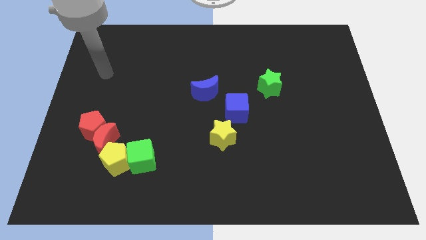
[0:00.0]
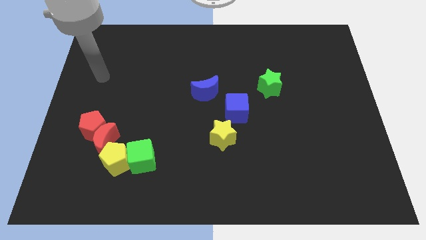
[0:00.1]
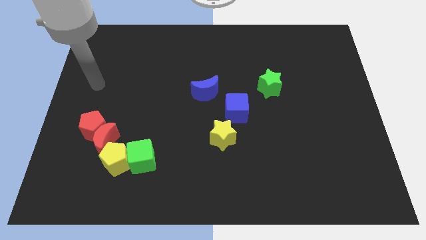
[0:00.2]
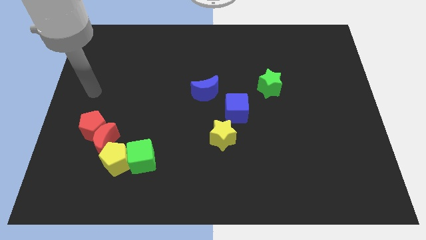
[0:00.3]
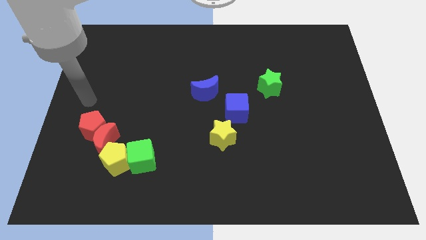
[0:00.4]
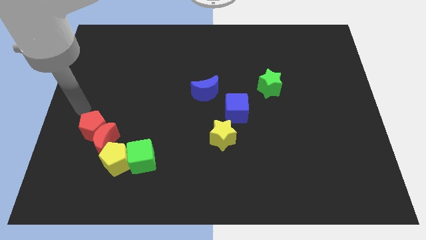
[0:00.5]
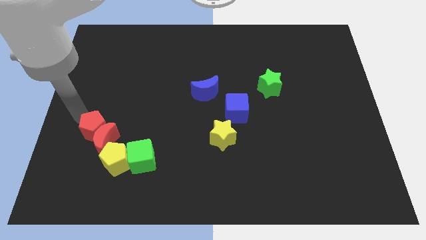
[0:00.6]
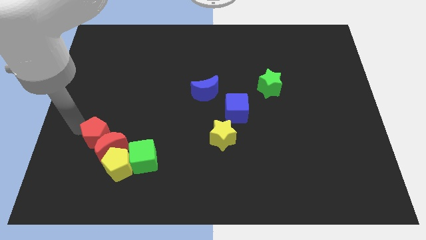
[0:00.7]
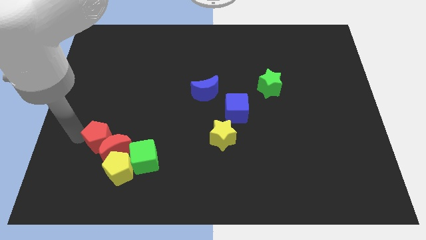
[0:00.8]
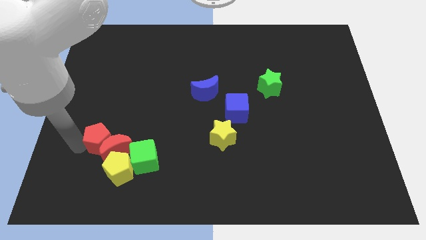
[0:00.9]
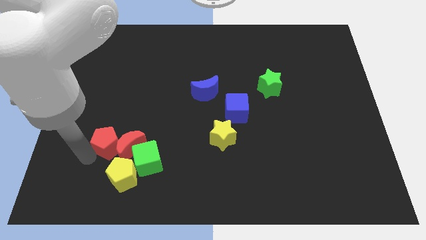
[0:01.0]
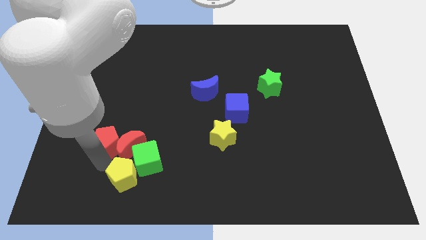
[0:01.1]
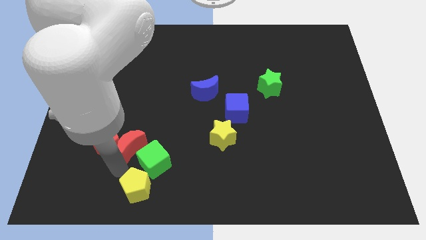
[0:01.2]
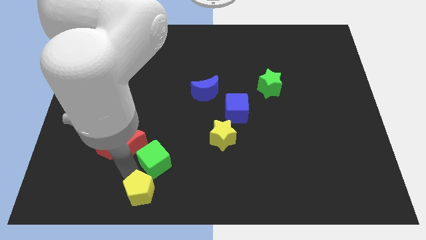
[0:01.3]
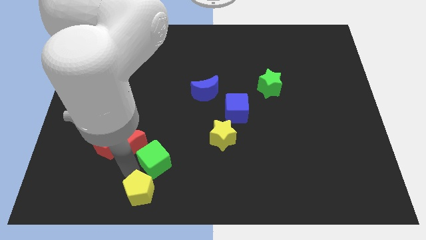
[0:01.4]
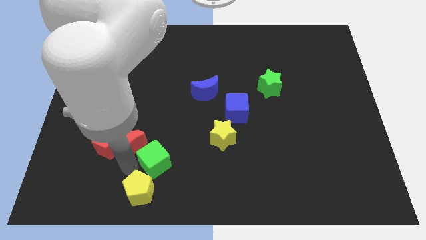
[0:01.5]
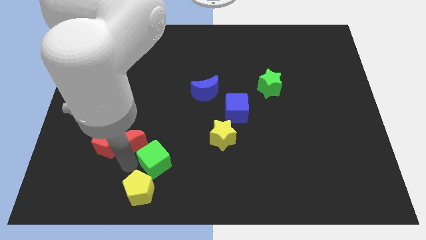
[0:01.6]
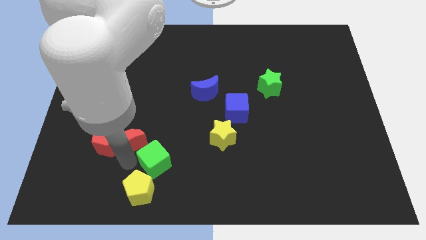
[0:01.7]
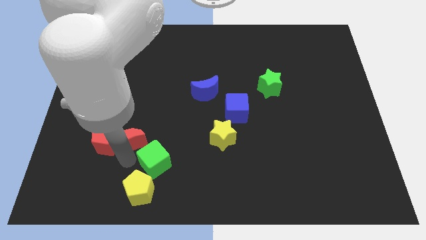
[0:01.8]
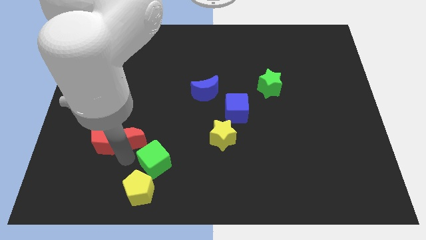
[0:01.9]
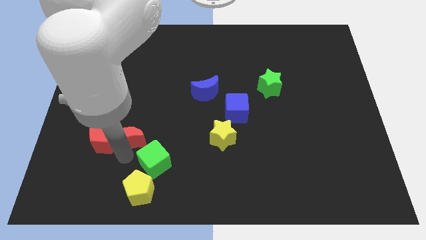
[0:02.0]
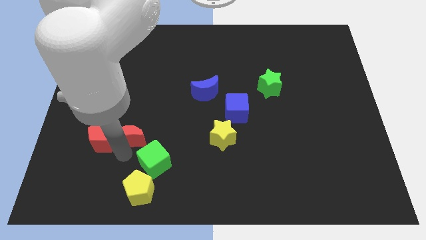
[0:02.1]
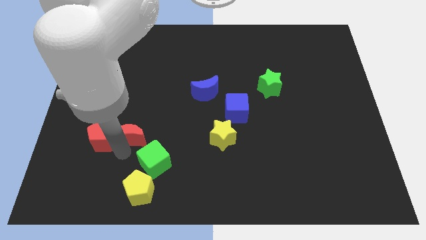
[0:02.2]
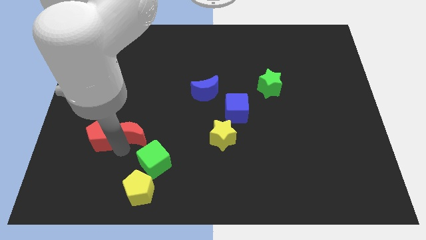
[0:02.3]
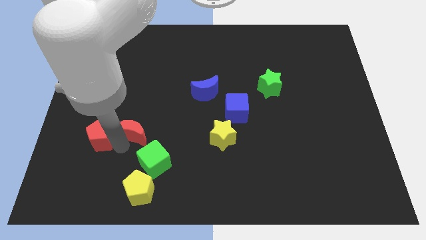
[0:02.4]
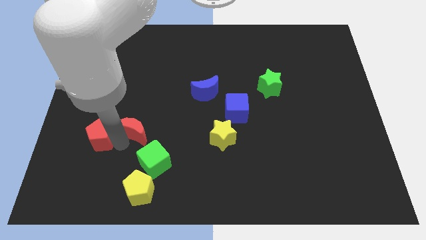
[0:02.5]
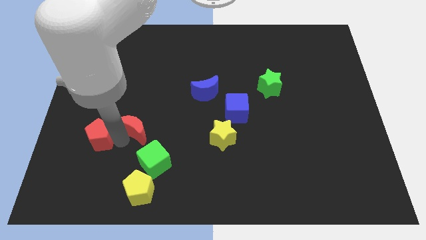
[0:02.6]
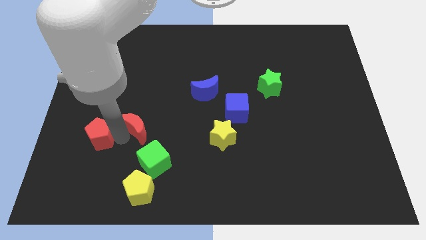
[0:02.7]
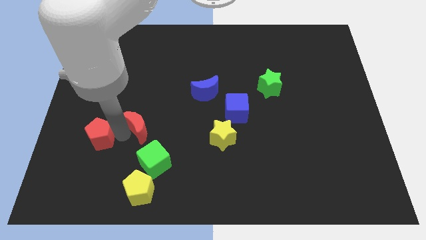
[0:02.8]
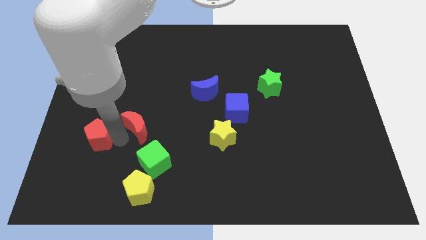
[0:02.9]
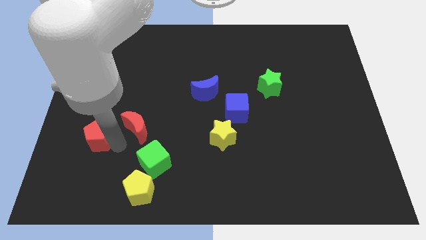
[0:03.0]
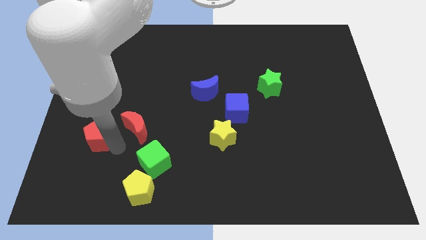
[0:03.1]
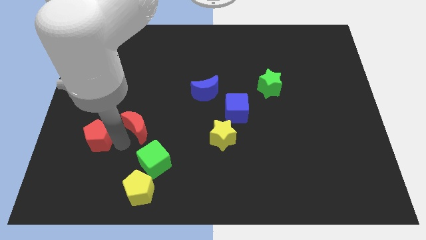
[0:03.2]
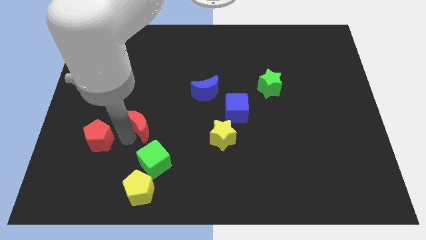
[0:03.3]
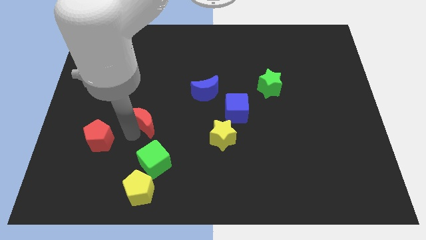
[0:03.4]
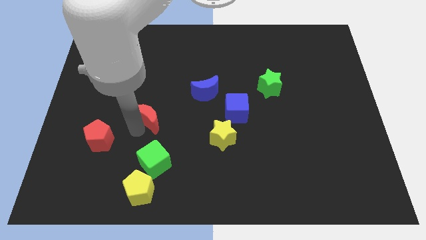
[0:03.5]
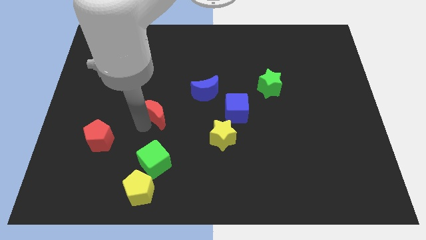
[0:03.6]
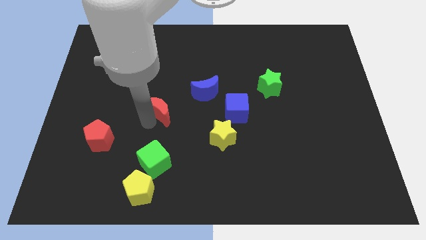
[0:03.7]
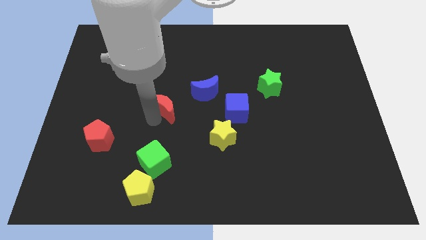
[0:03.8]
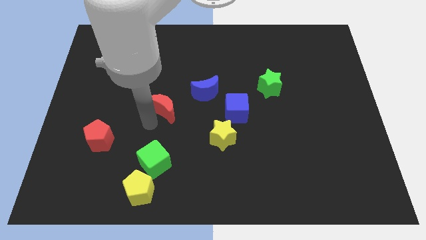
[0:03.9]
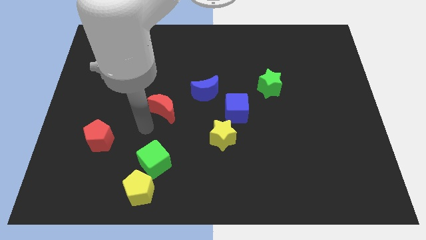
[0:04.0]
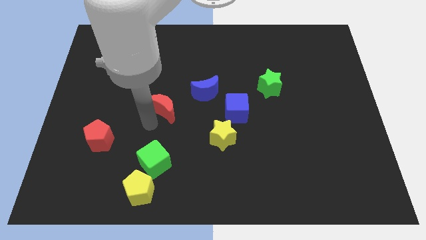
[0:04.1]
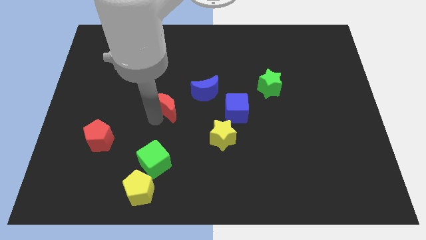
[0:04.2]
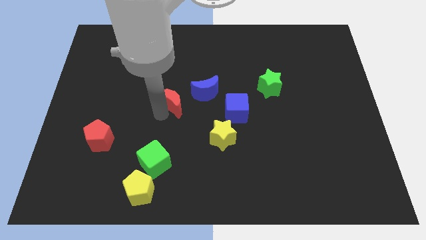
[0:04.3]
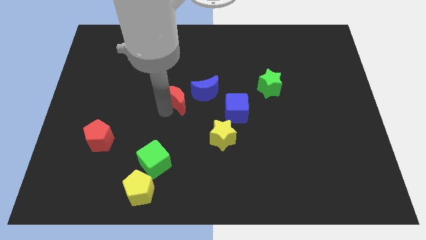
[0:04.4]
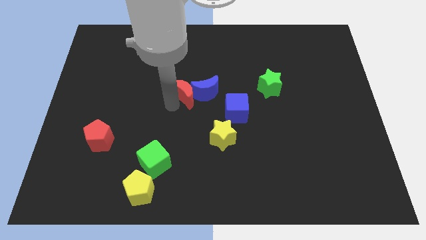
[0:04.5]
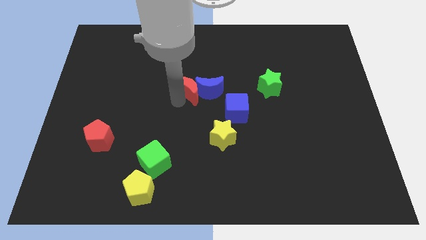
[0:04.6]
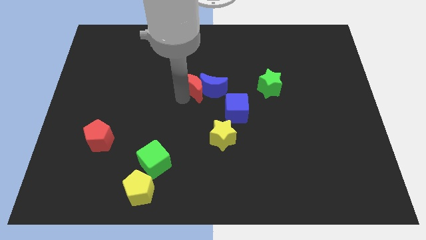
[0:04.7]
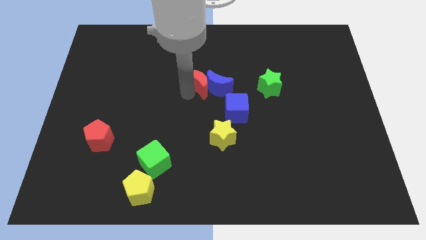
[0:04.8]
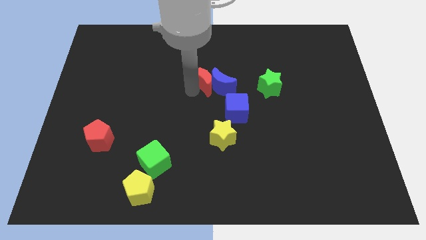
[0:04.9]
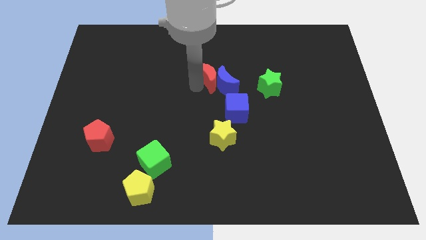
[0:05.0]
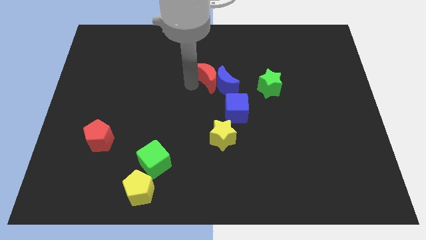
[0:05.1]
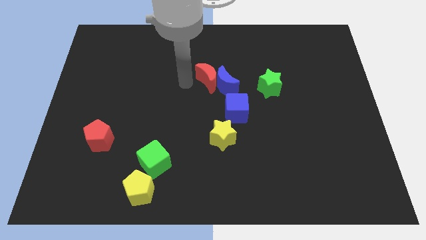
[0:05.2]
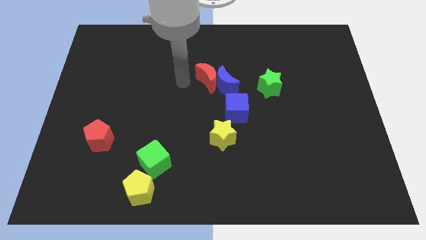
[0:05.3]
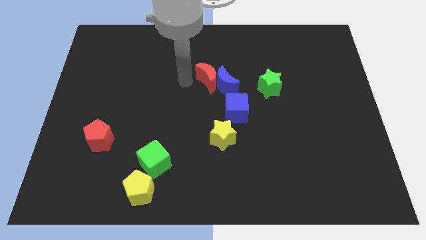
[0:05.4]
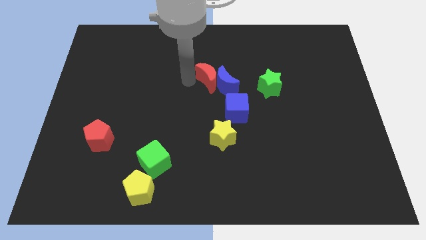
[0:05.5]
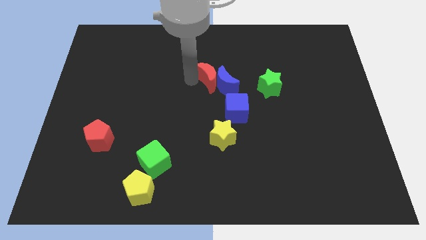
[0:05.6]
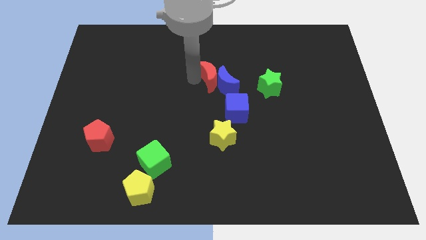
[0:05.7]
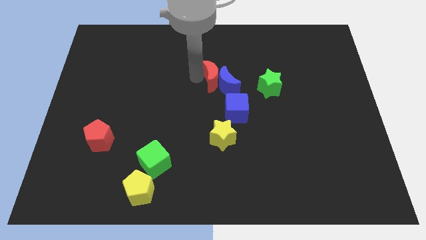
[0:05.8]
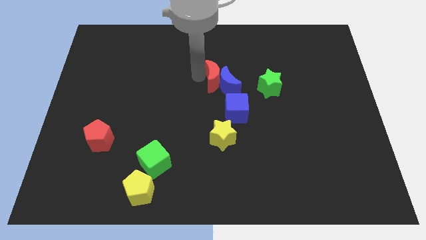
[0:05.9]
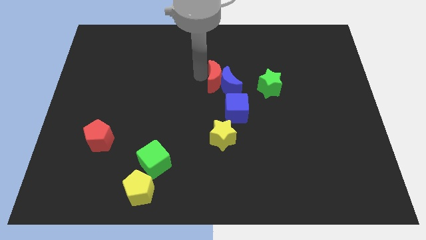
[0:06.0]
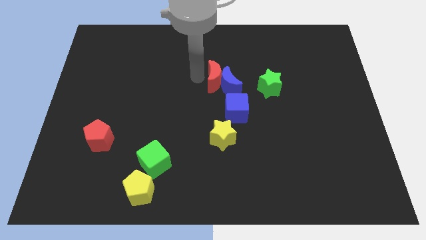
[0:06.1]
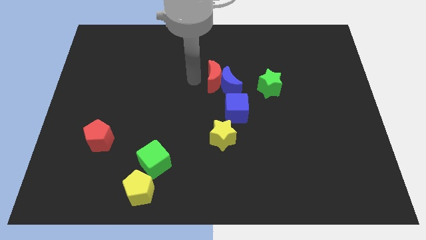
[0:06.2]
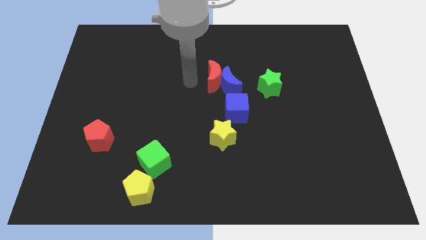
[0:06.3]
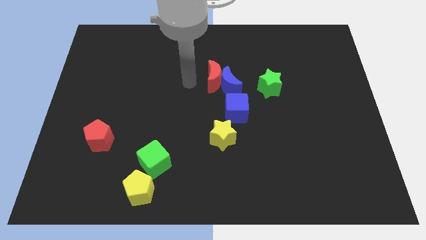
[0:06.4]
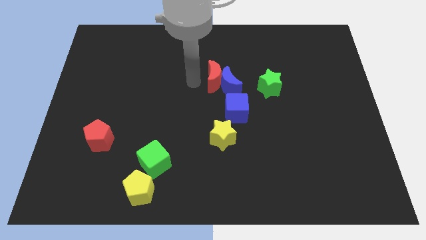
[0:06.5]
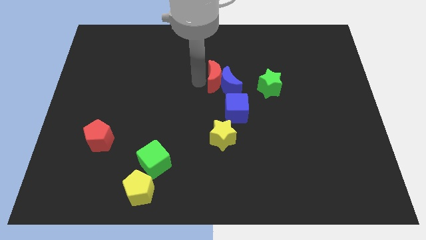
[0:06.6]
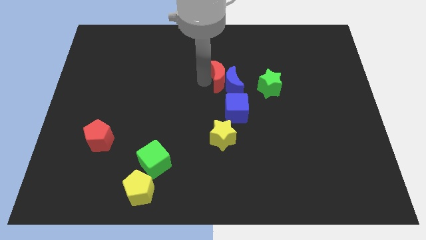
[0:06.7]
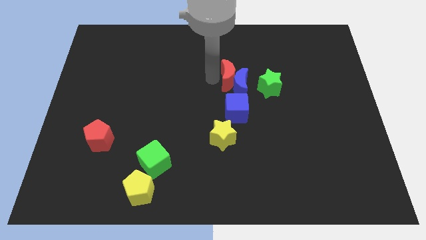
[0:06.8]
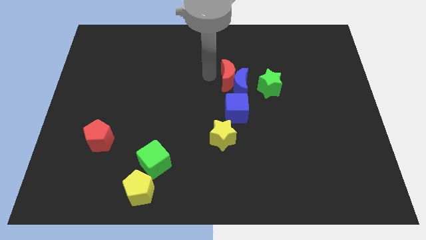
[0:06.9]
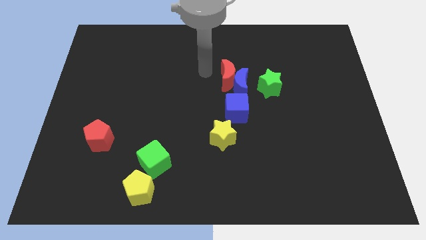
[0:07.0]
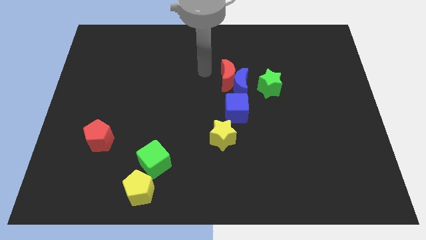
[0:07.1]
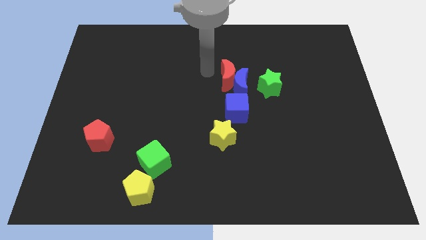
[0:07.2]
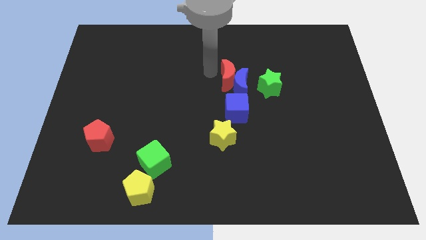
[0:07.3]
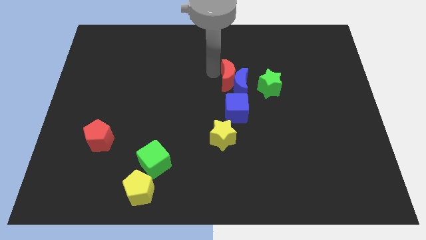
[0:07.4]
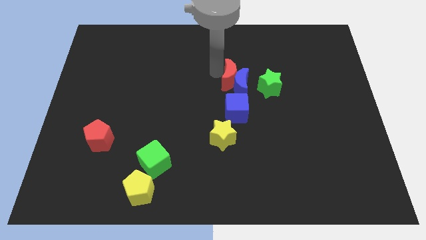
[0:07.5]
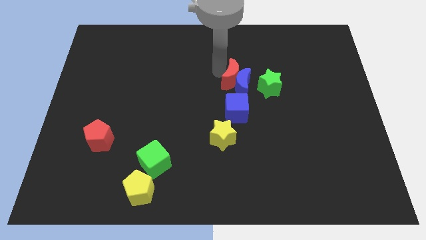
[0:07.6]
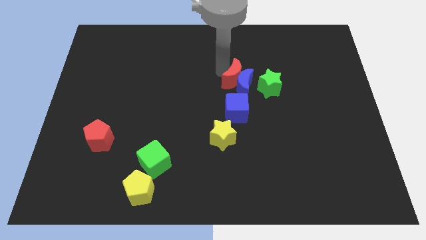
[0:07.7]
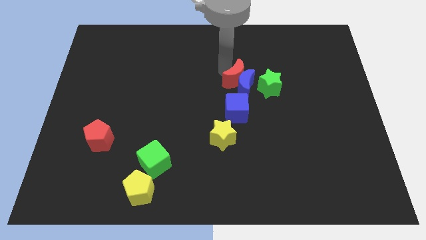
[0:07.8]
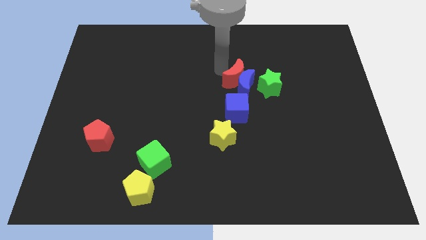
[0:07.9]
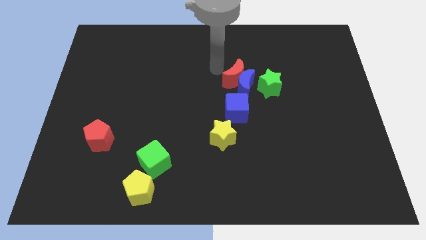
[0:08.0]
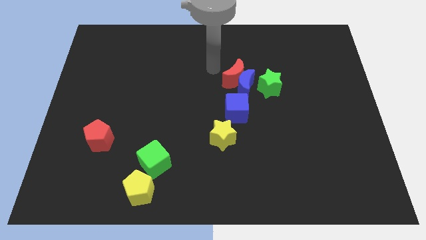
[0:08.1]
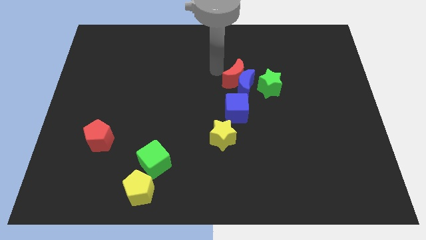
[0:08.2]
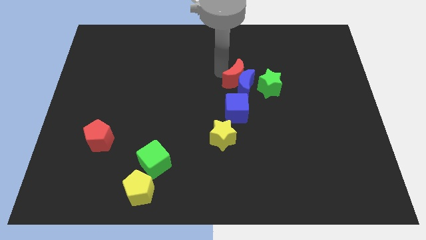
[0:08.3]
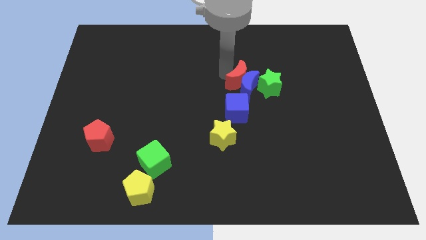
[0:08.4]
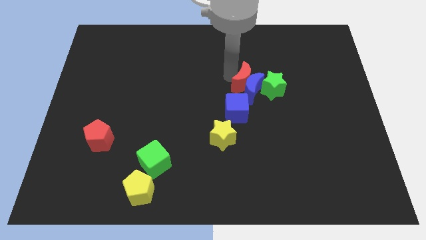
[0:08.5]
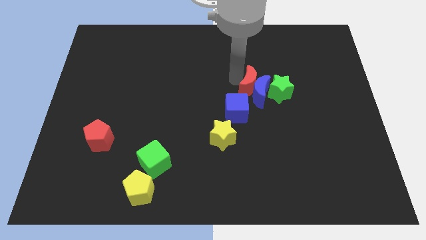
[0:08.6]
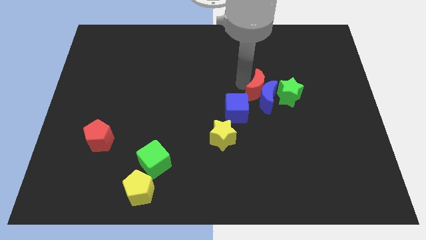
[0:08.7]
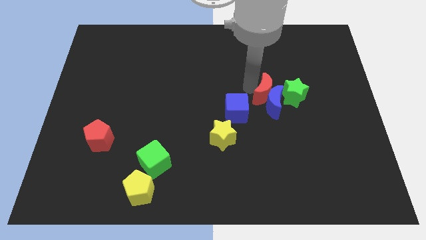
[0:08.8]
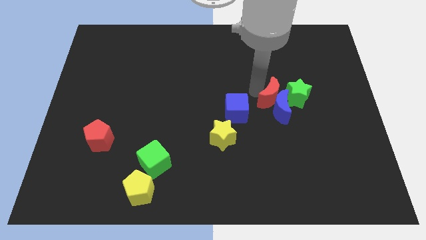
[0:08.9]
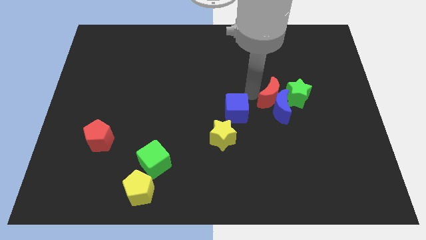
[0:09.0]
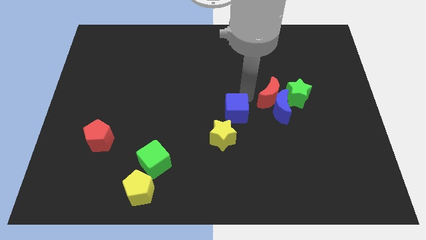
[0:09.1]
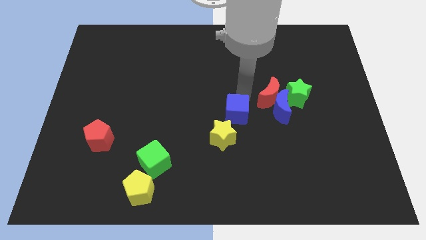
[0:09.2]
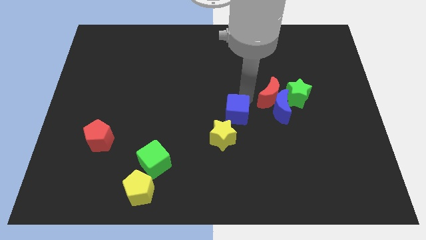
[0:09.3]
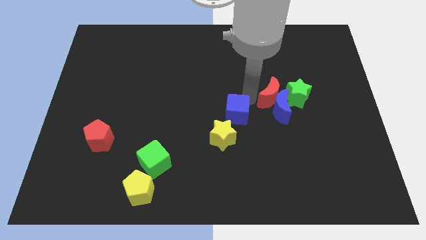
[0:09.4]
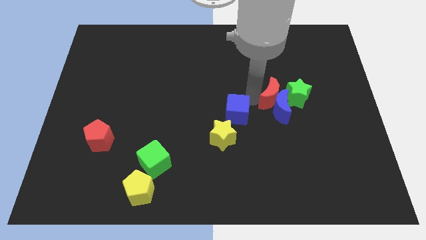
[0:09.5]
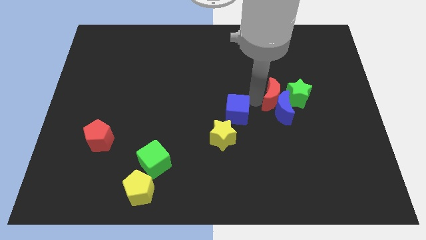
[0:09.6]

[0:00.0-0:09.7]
move the red moon close to the green star
